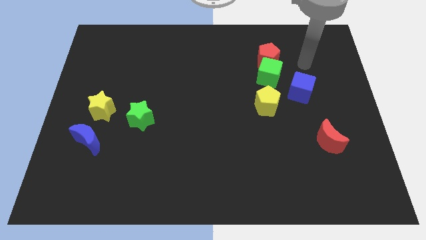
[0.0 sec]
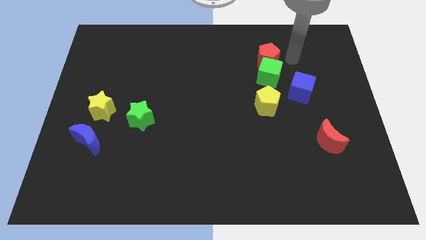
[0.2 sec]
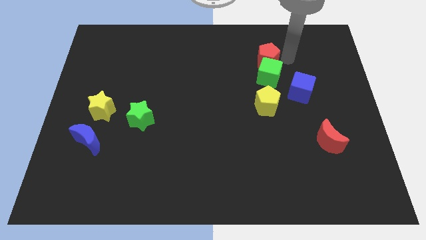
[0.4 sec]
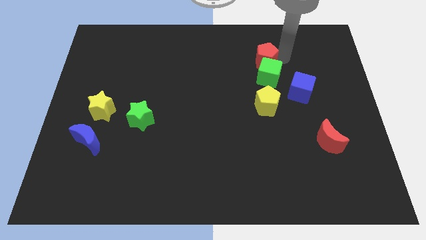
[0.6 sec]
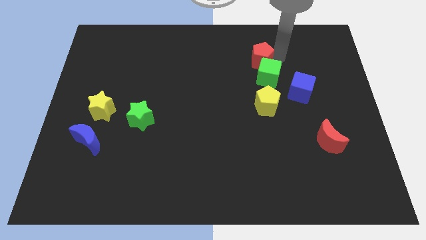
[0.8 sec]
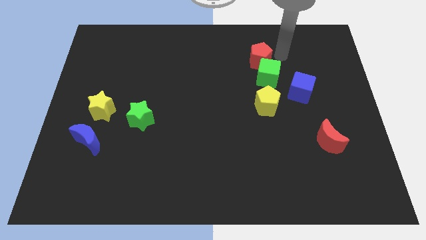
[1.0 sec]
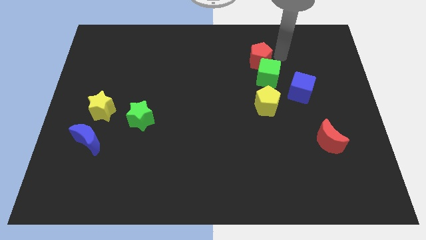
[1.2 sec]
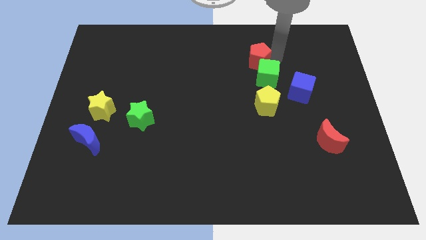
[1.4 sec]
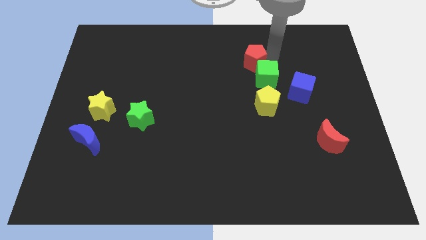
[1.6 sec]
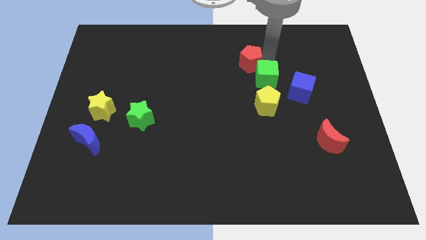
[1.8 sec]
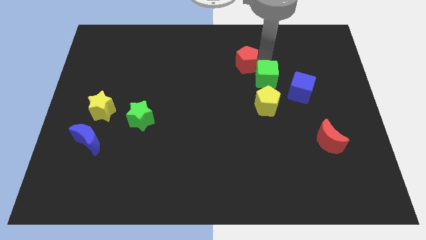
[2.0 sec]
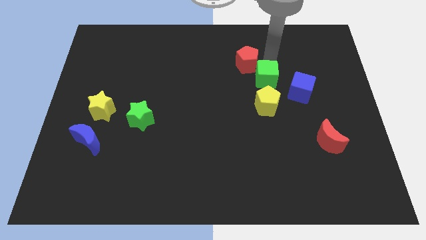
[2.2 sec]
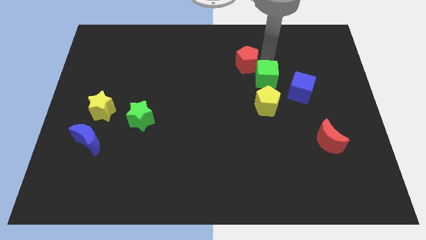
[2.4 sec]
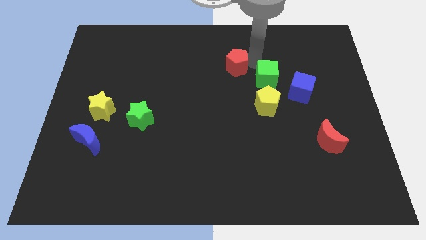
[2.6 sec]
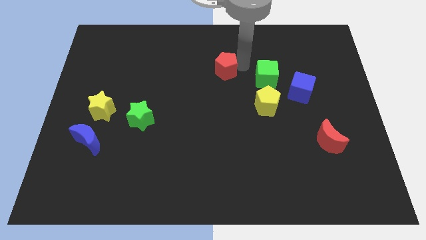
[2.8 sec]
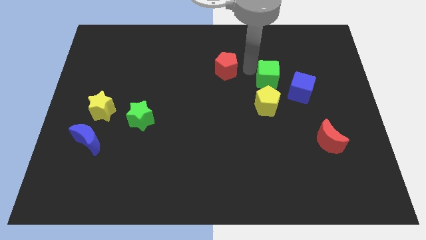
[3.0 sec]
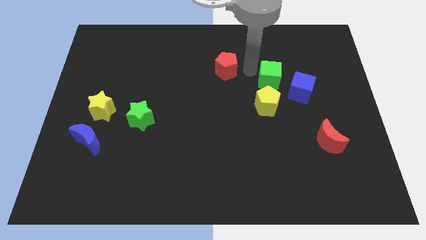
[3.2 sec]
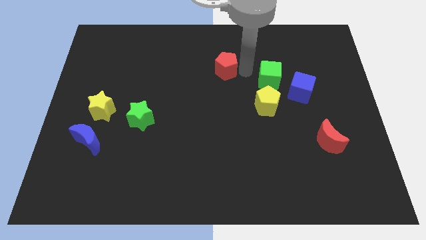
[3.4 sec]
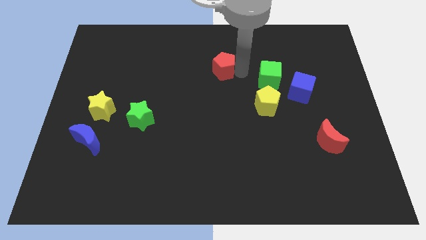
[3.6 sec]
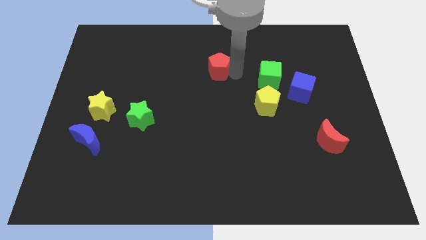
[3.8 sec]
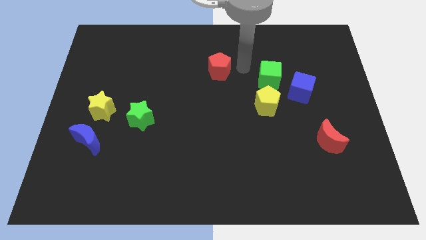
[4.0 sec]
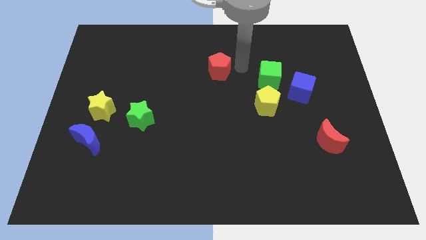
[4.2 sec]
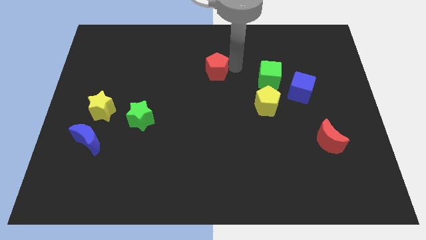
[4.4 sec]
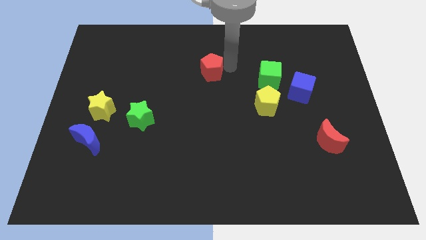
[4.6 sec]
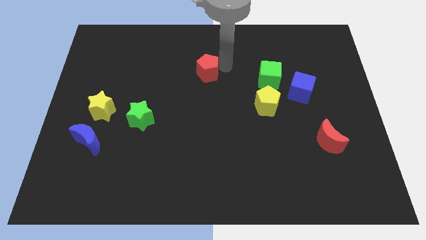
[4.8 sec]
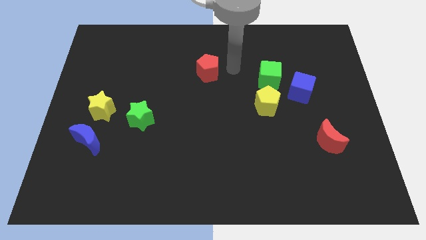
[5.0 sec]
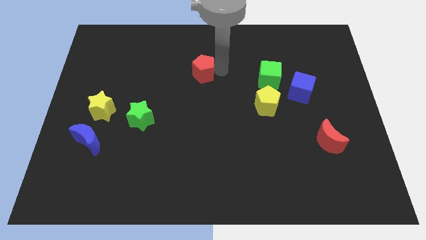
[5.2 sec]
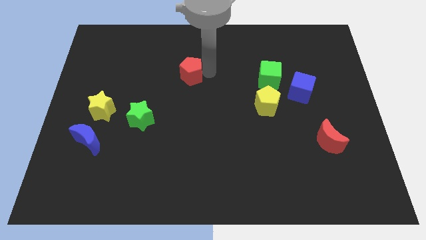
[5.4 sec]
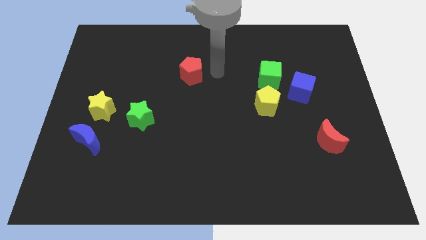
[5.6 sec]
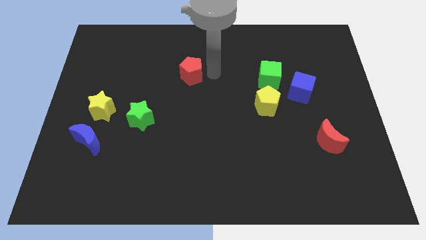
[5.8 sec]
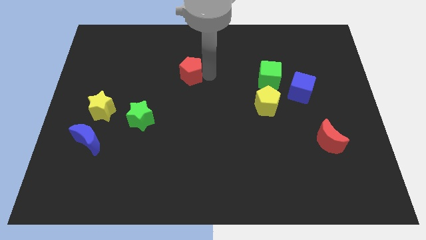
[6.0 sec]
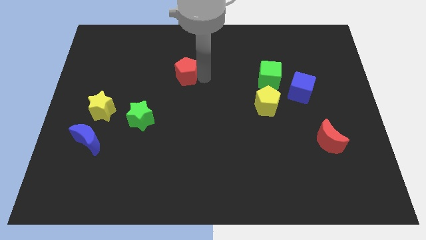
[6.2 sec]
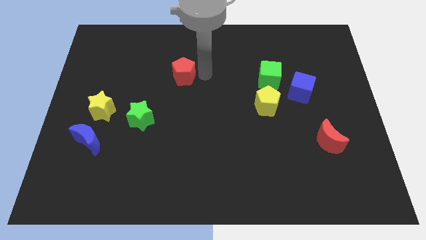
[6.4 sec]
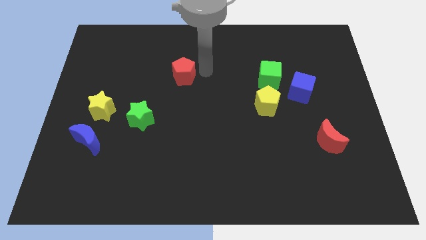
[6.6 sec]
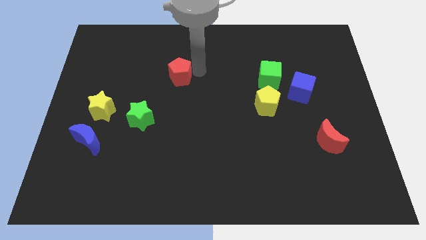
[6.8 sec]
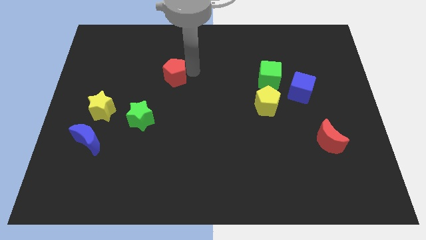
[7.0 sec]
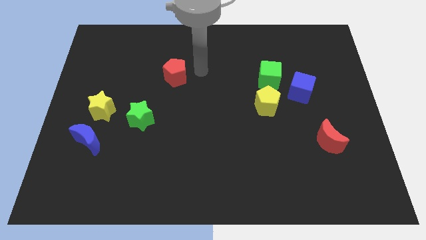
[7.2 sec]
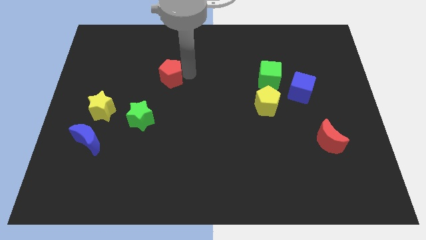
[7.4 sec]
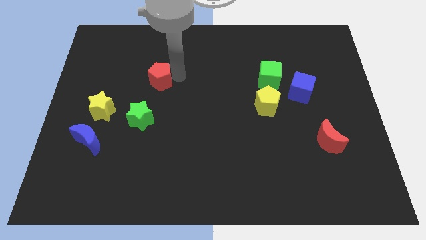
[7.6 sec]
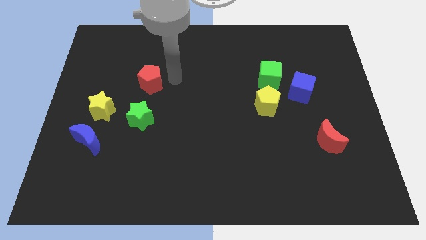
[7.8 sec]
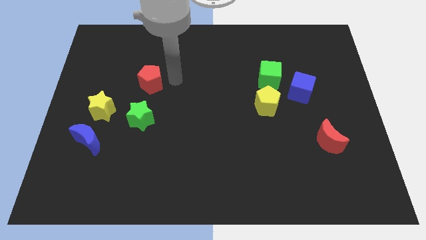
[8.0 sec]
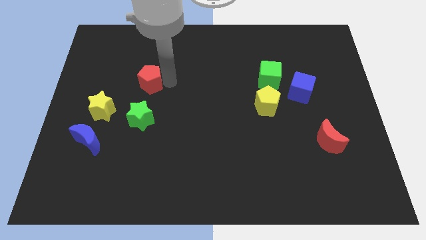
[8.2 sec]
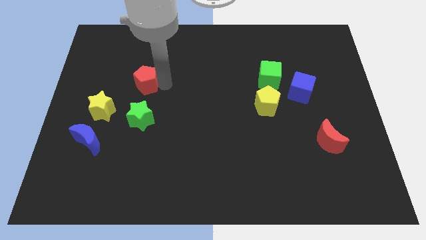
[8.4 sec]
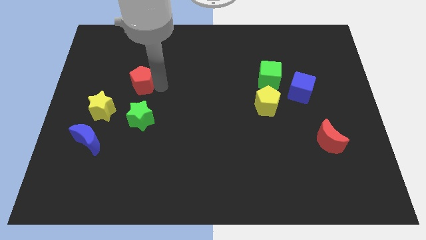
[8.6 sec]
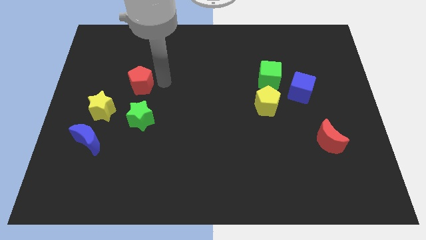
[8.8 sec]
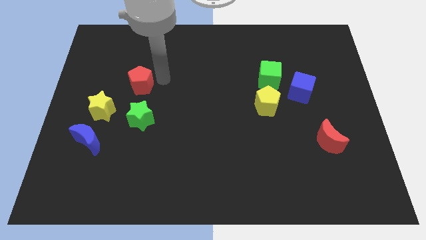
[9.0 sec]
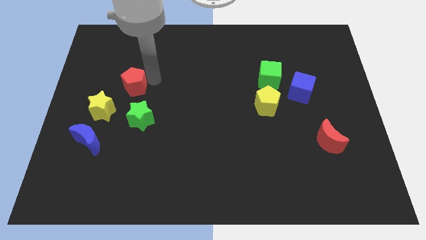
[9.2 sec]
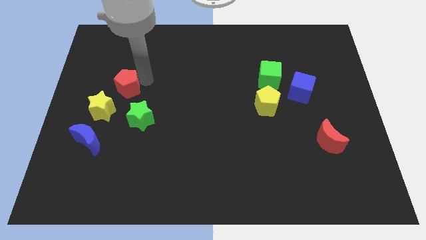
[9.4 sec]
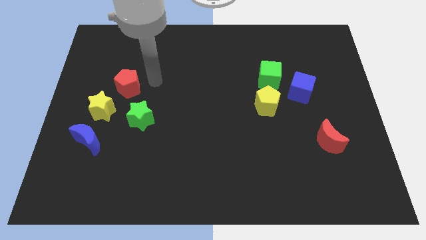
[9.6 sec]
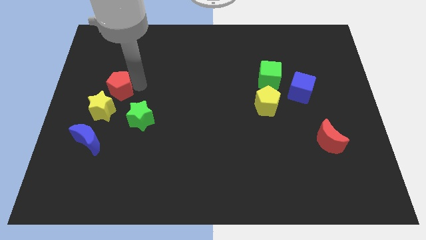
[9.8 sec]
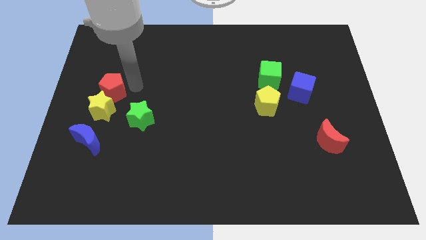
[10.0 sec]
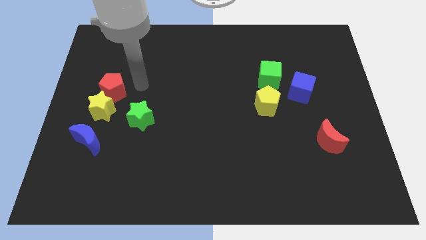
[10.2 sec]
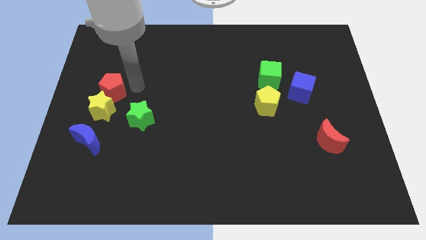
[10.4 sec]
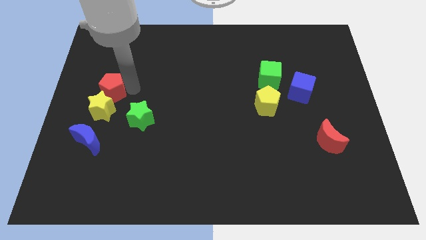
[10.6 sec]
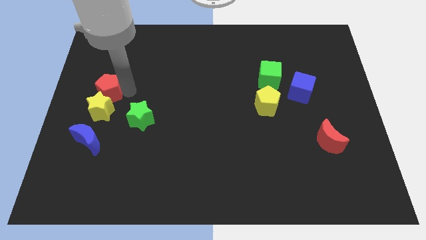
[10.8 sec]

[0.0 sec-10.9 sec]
put the red pentagon to the left side

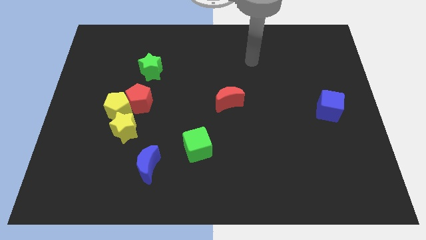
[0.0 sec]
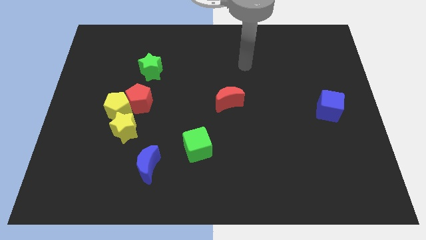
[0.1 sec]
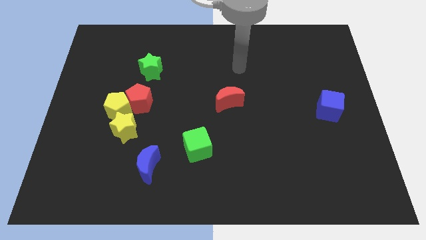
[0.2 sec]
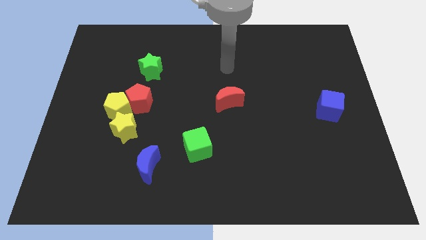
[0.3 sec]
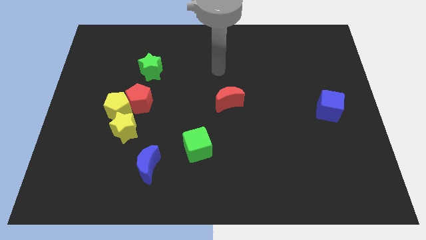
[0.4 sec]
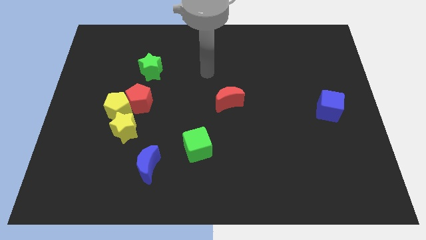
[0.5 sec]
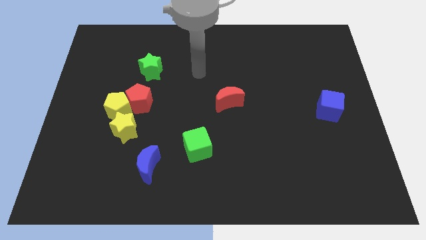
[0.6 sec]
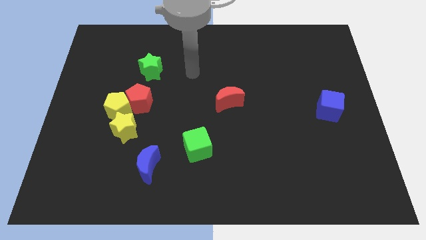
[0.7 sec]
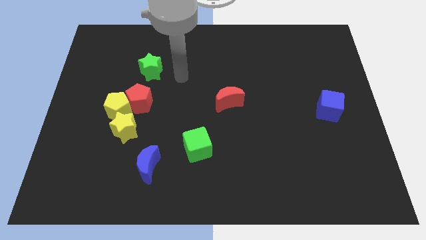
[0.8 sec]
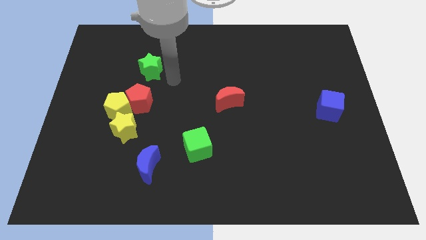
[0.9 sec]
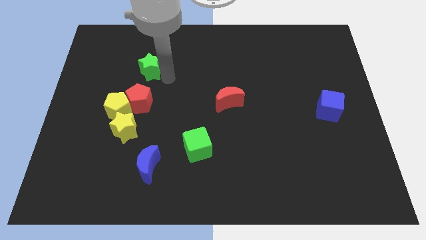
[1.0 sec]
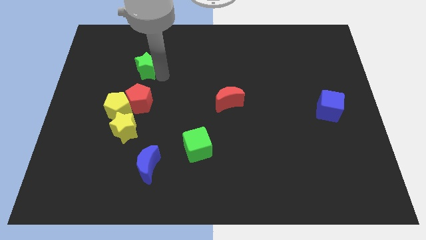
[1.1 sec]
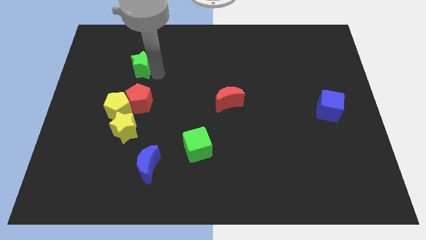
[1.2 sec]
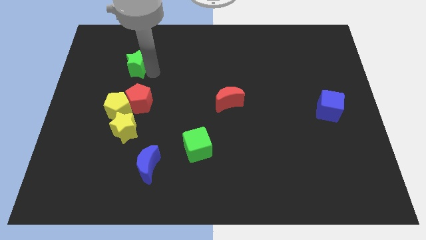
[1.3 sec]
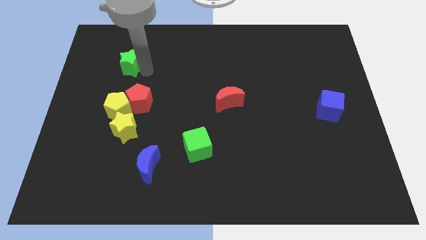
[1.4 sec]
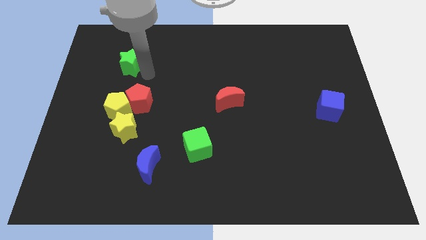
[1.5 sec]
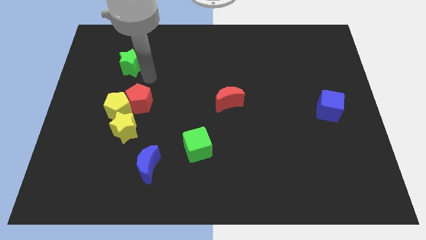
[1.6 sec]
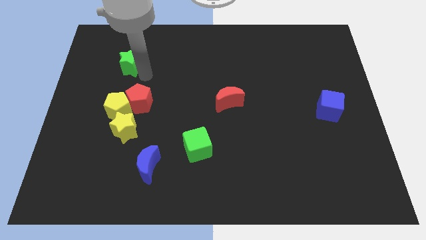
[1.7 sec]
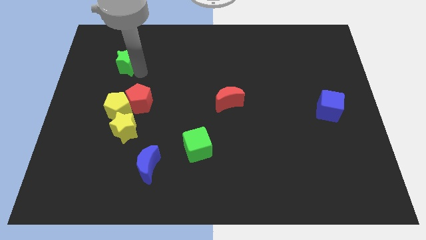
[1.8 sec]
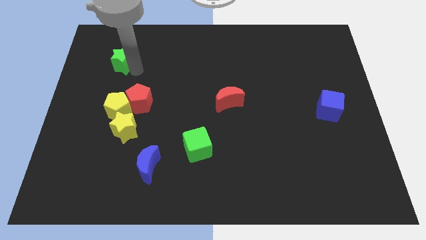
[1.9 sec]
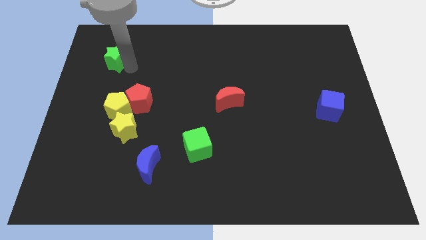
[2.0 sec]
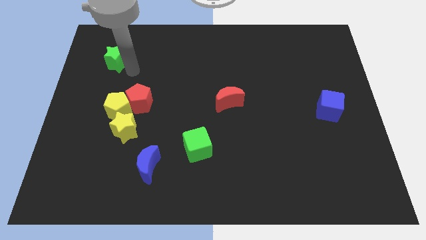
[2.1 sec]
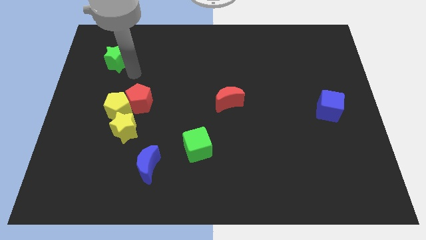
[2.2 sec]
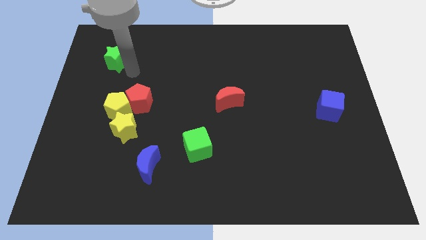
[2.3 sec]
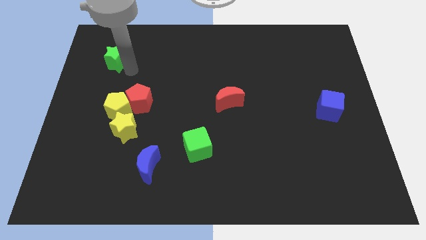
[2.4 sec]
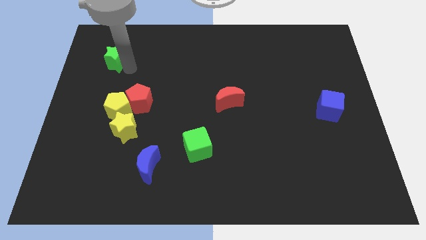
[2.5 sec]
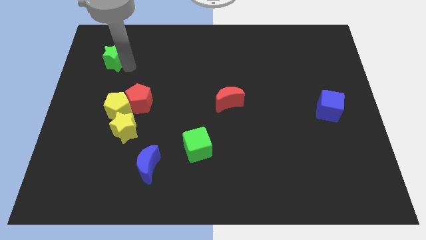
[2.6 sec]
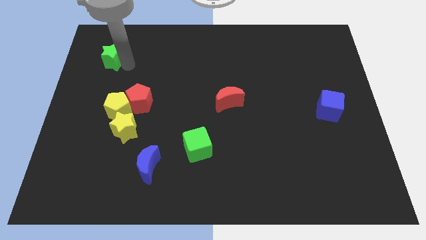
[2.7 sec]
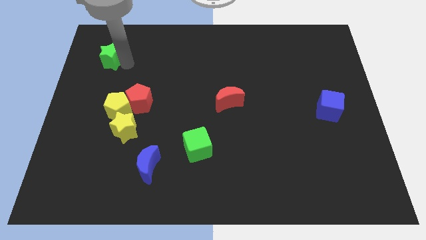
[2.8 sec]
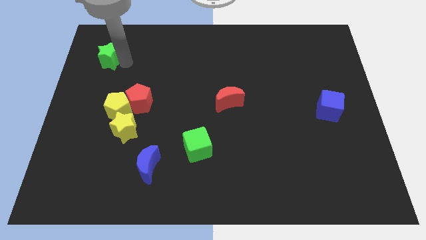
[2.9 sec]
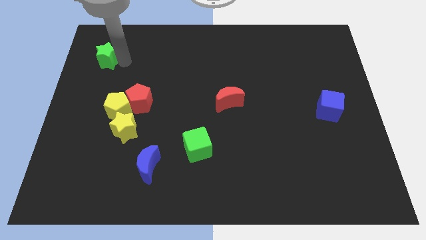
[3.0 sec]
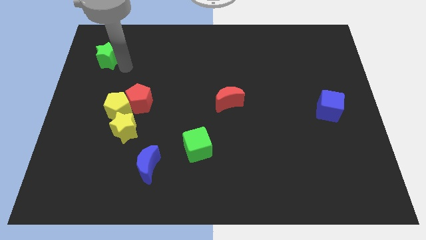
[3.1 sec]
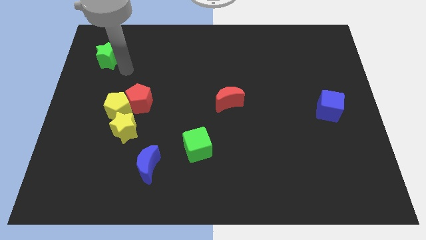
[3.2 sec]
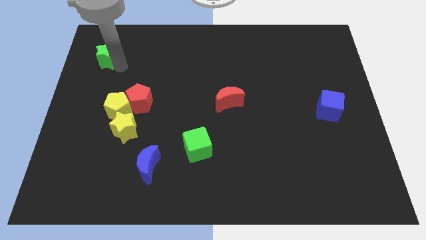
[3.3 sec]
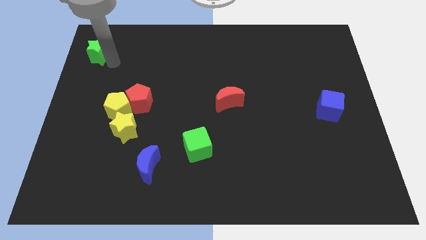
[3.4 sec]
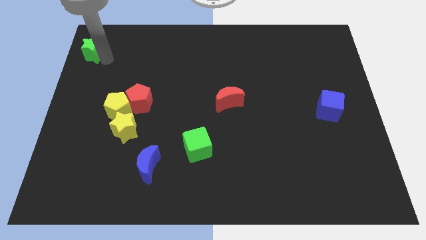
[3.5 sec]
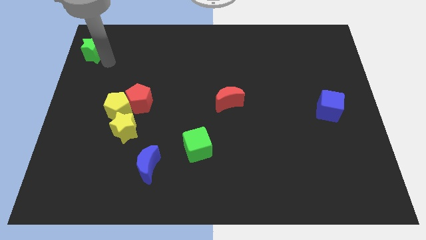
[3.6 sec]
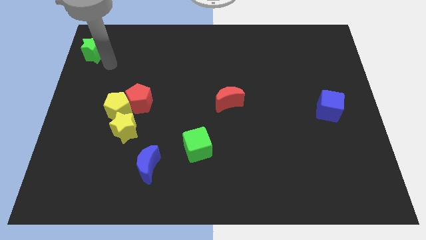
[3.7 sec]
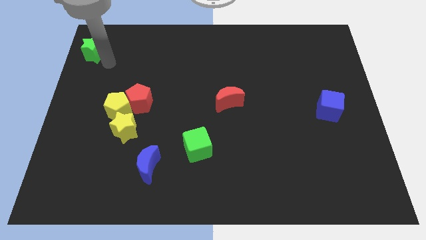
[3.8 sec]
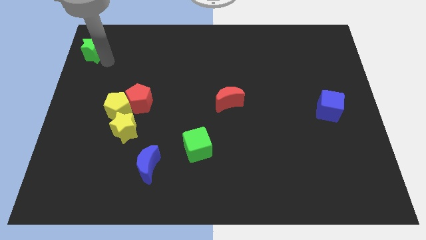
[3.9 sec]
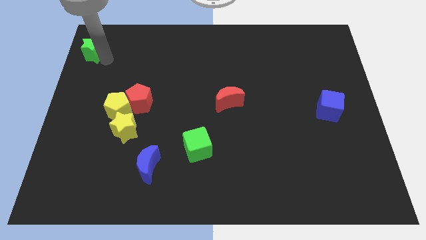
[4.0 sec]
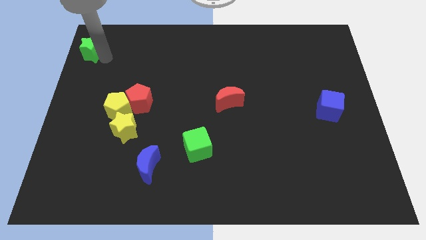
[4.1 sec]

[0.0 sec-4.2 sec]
push the green star to the top left corner
